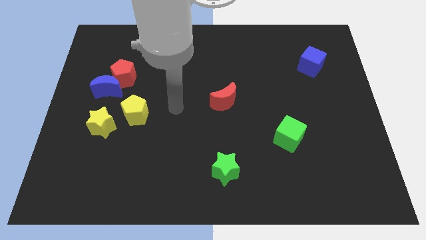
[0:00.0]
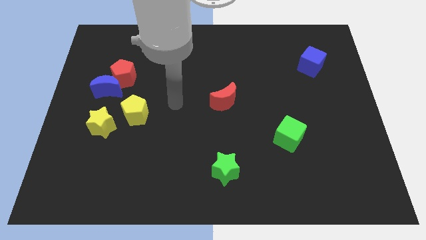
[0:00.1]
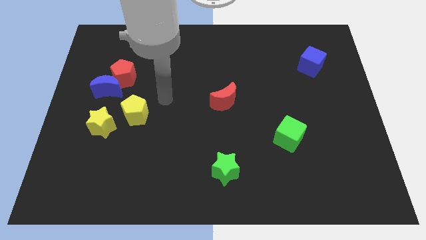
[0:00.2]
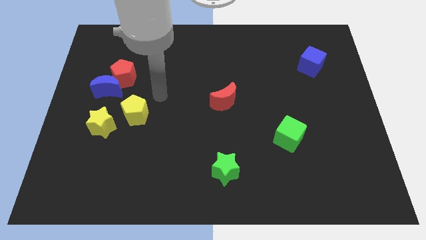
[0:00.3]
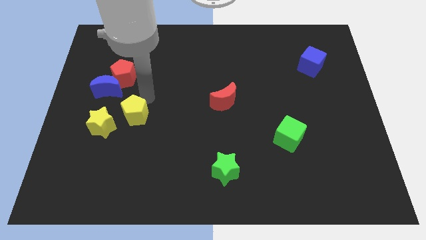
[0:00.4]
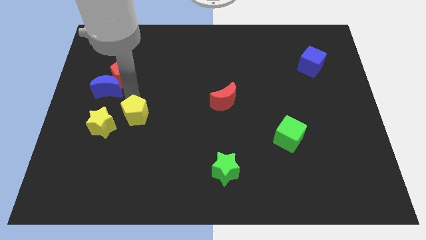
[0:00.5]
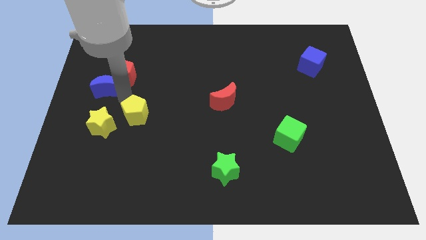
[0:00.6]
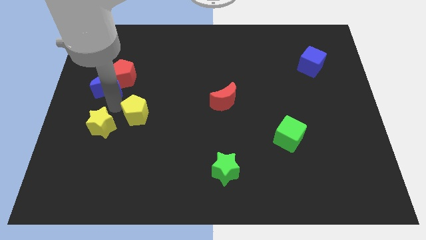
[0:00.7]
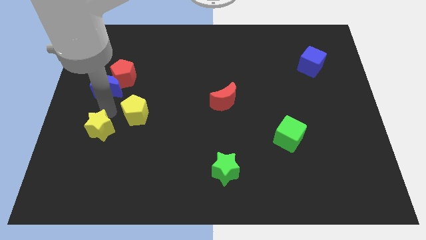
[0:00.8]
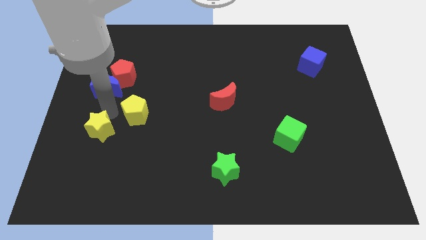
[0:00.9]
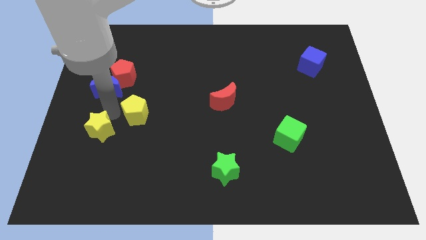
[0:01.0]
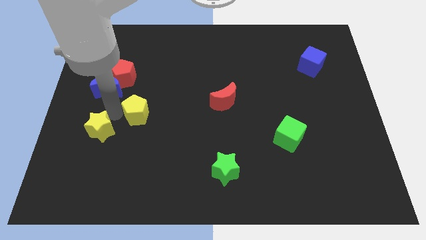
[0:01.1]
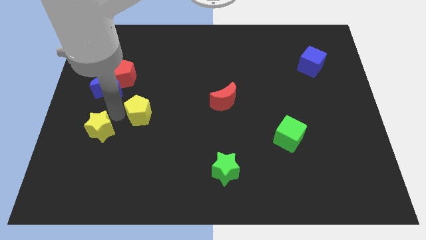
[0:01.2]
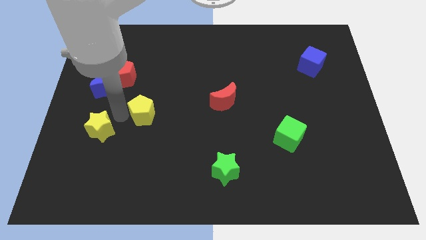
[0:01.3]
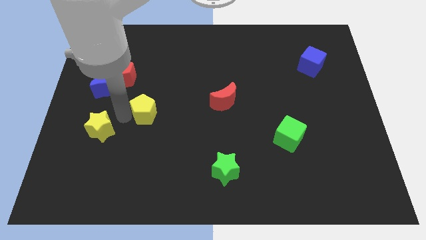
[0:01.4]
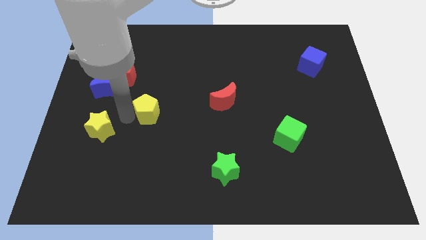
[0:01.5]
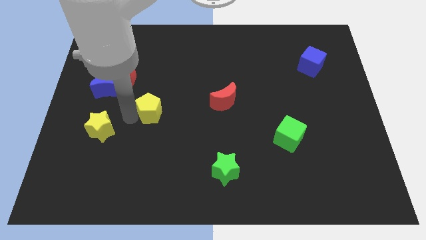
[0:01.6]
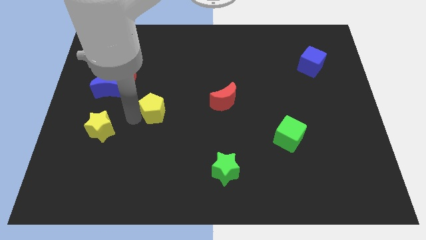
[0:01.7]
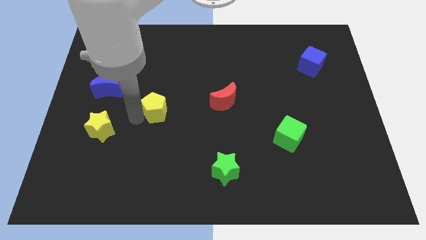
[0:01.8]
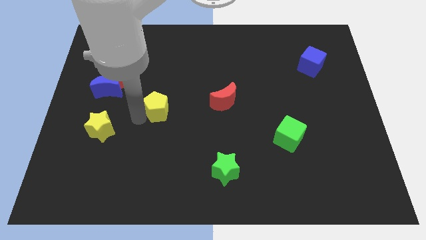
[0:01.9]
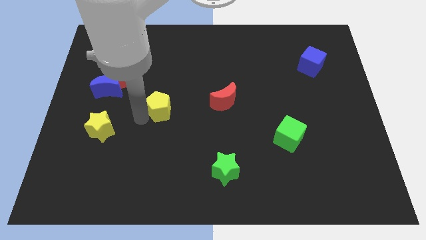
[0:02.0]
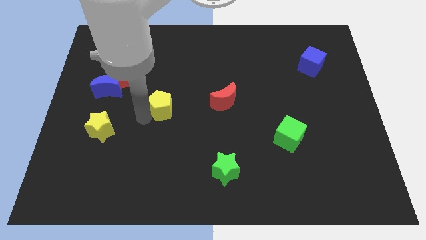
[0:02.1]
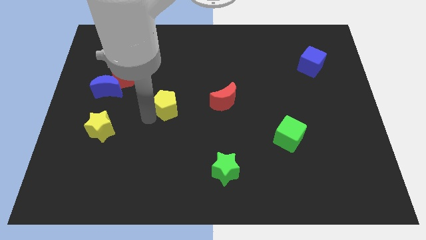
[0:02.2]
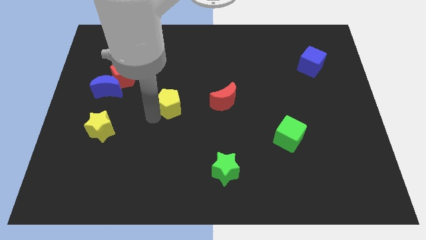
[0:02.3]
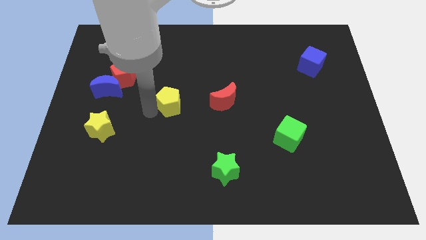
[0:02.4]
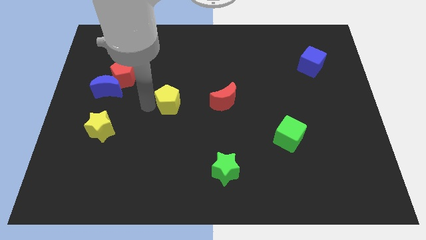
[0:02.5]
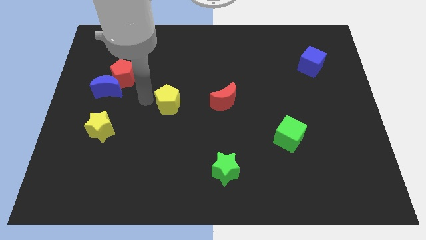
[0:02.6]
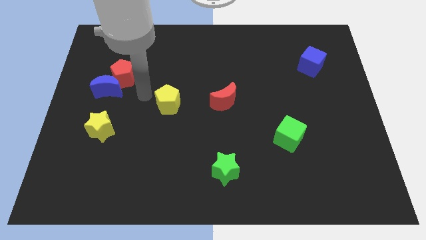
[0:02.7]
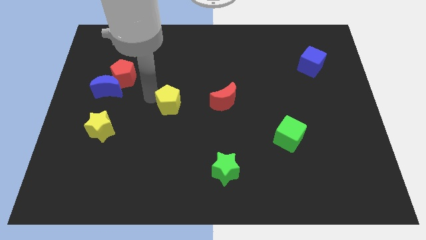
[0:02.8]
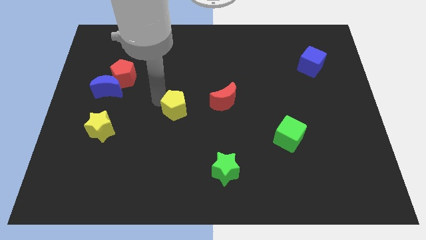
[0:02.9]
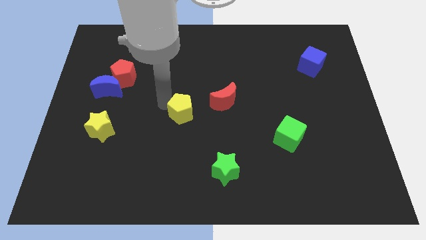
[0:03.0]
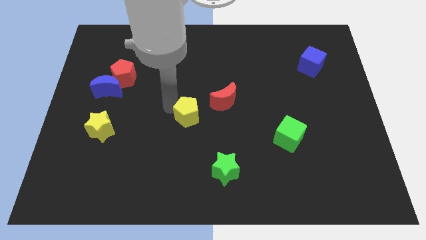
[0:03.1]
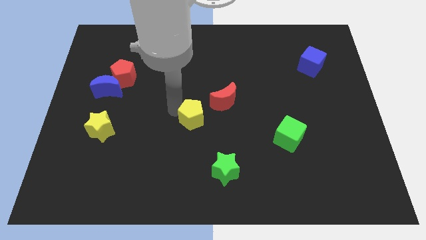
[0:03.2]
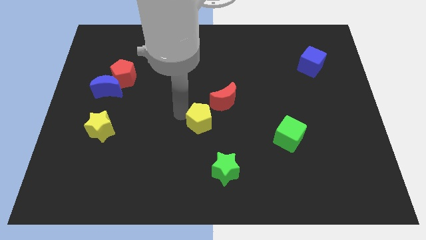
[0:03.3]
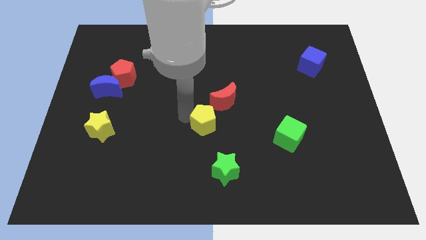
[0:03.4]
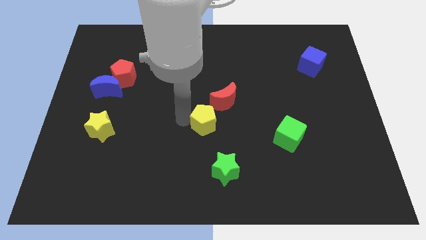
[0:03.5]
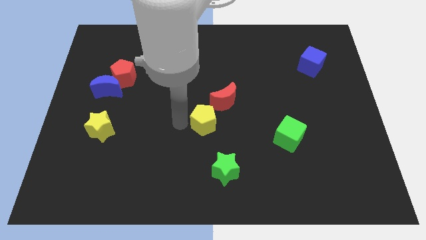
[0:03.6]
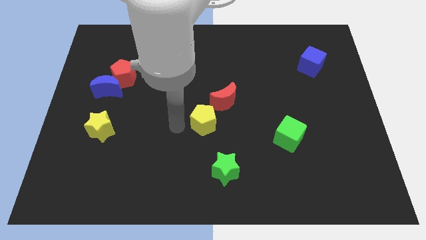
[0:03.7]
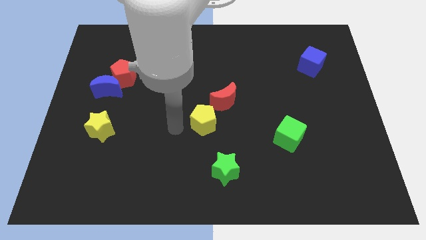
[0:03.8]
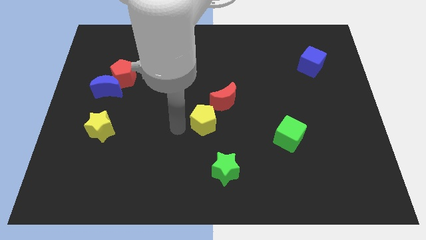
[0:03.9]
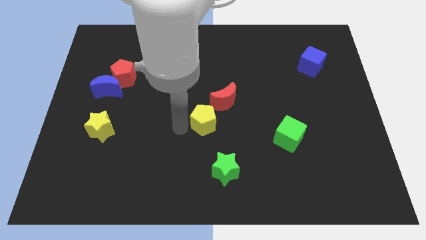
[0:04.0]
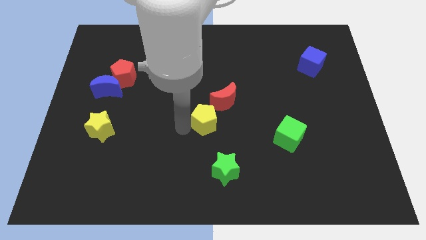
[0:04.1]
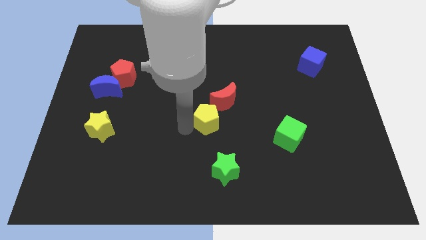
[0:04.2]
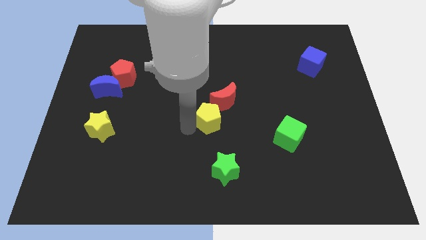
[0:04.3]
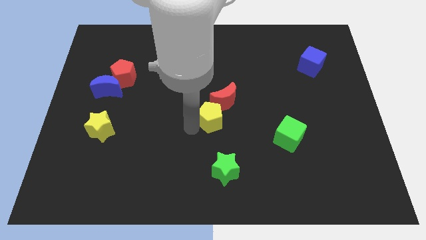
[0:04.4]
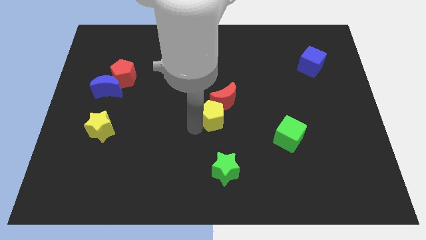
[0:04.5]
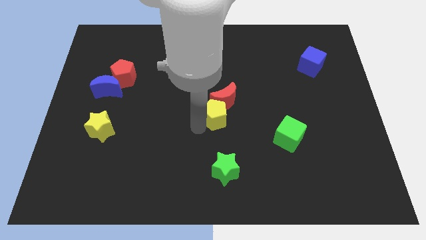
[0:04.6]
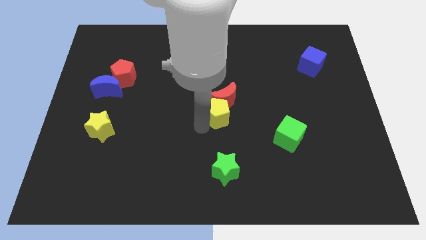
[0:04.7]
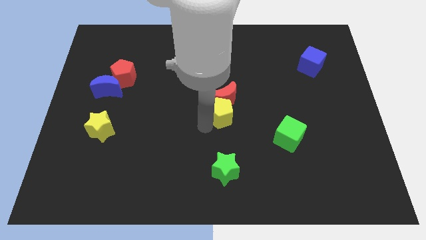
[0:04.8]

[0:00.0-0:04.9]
move the yellow pentagon right

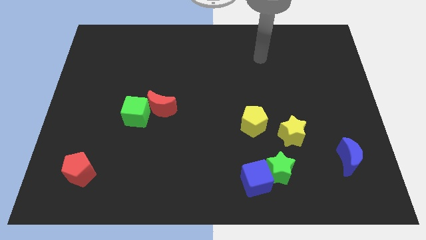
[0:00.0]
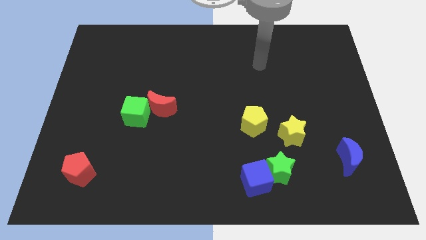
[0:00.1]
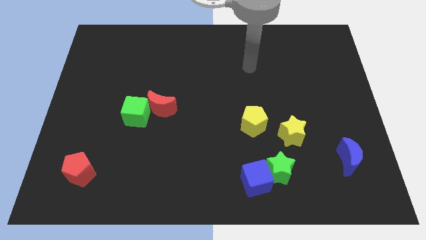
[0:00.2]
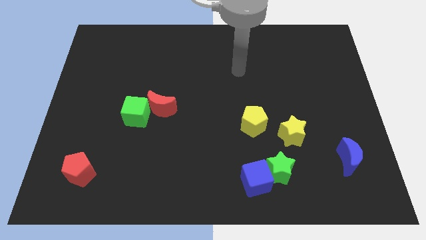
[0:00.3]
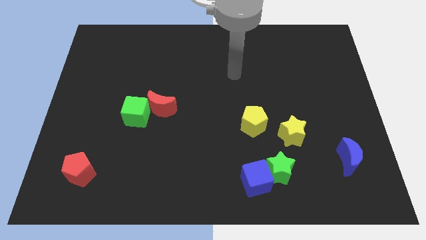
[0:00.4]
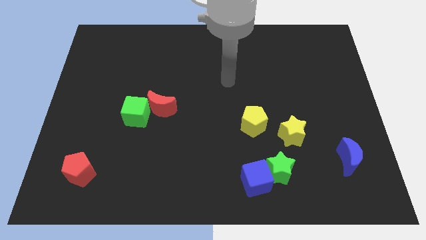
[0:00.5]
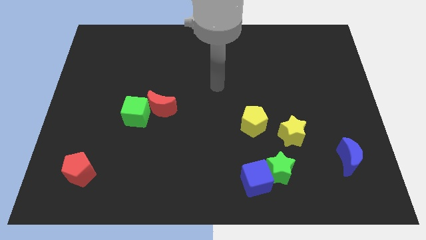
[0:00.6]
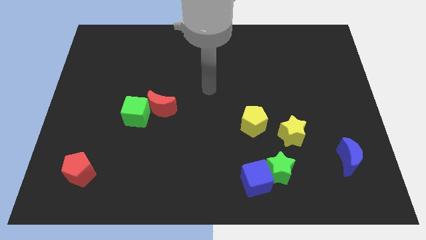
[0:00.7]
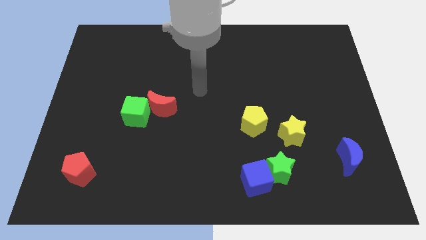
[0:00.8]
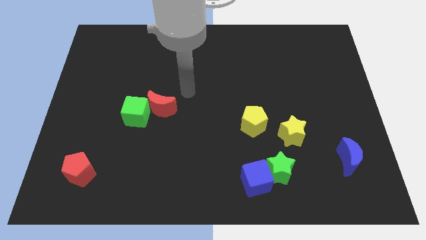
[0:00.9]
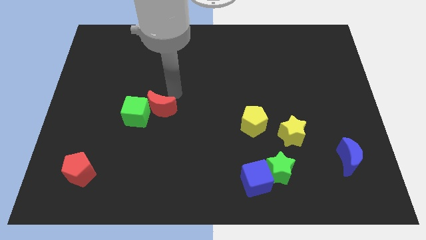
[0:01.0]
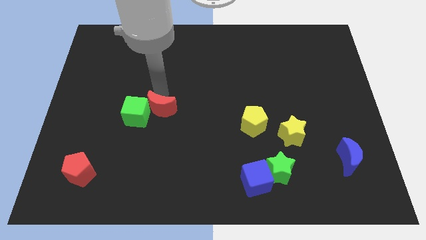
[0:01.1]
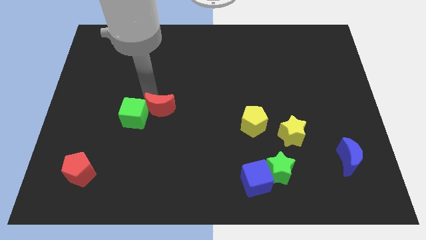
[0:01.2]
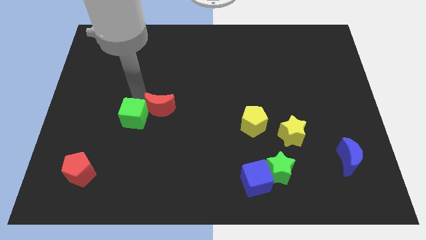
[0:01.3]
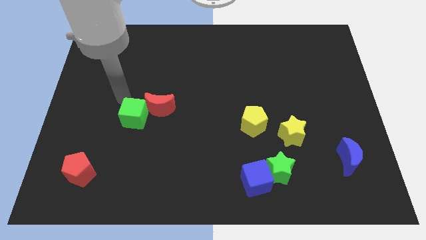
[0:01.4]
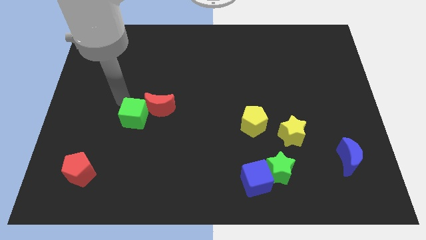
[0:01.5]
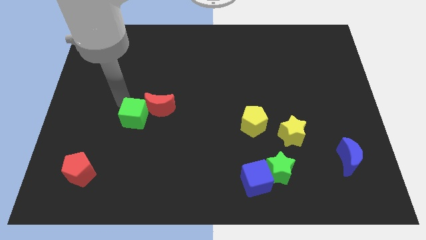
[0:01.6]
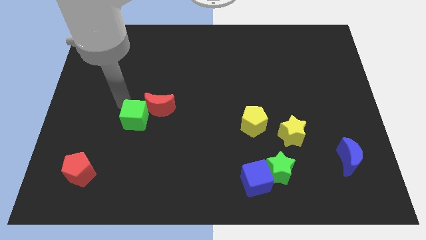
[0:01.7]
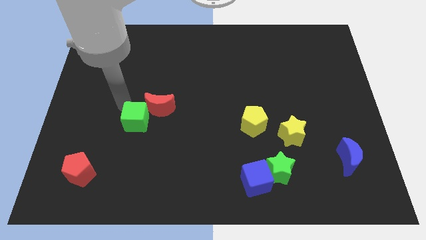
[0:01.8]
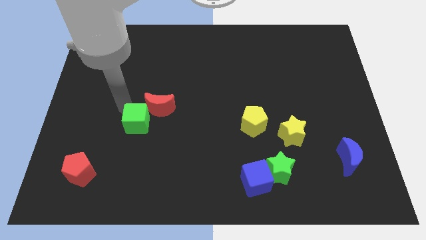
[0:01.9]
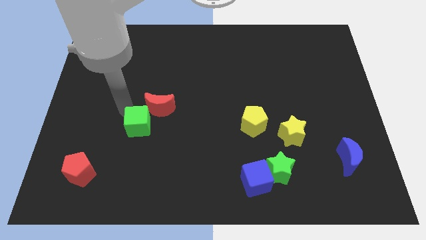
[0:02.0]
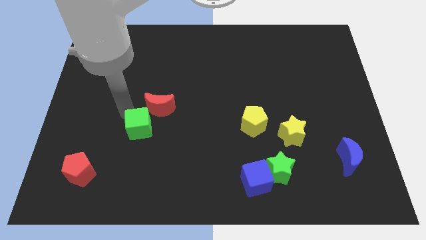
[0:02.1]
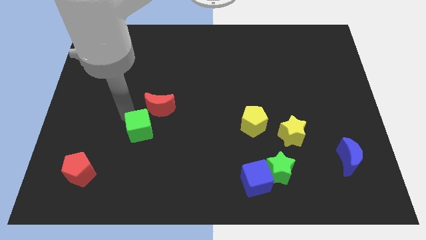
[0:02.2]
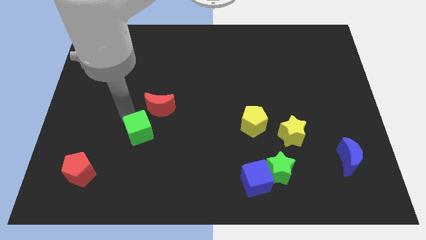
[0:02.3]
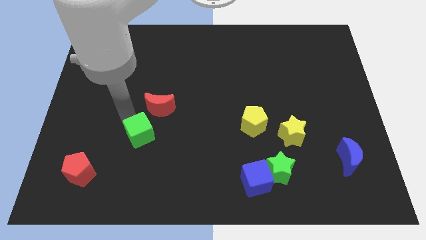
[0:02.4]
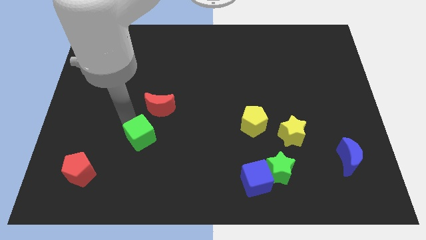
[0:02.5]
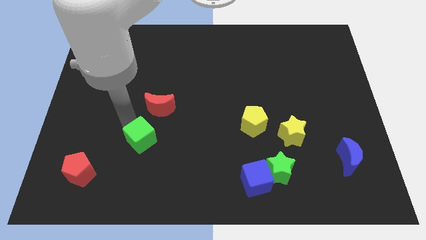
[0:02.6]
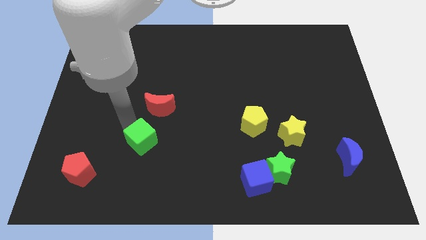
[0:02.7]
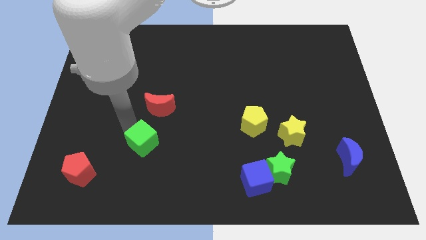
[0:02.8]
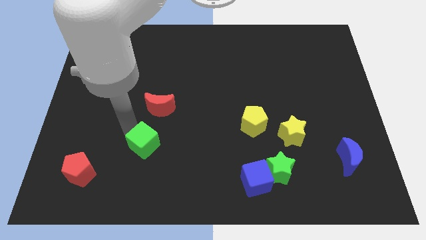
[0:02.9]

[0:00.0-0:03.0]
push the green cube somewhat downwards and right diagonally

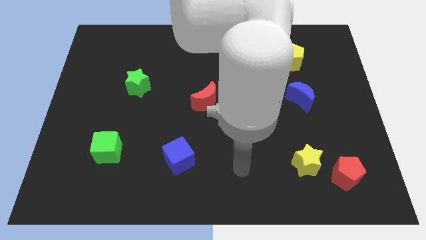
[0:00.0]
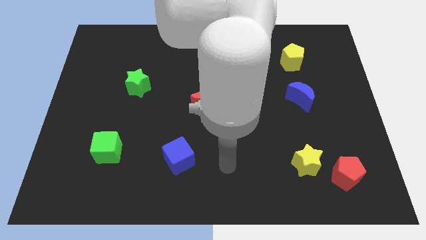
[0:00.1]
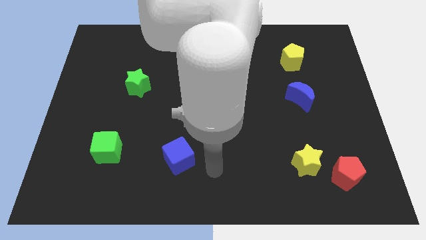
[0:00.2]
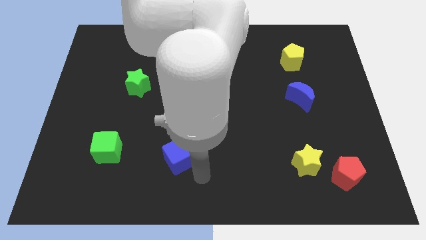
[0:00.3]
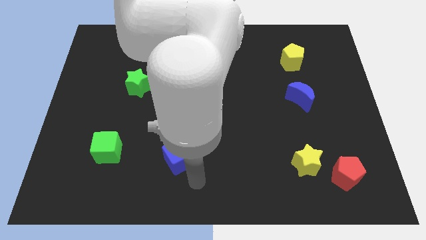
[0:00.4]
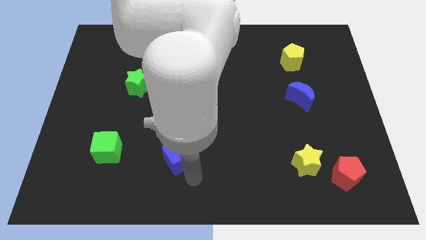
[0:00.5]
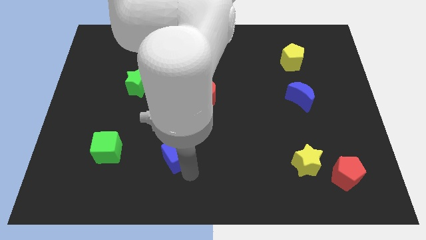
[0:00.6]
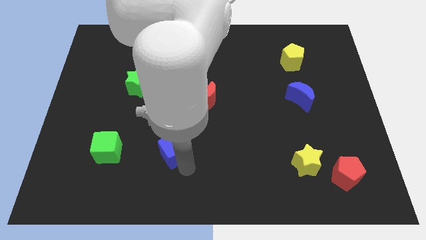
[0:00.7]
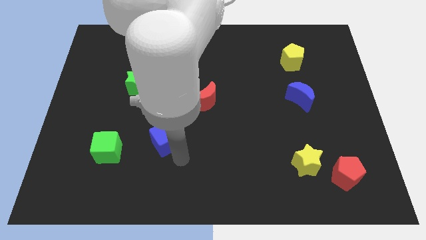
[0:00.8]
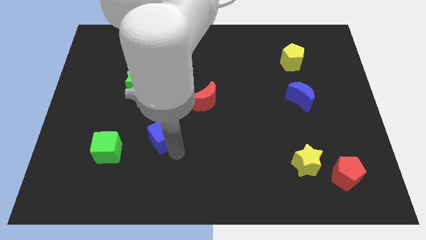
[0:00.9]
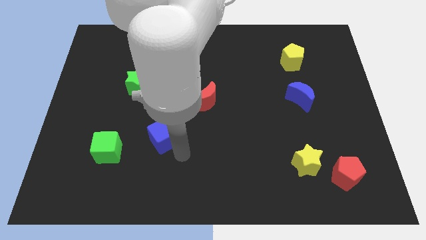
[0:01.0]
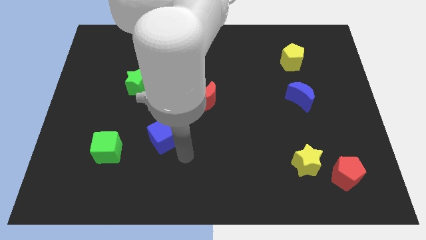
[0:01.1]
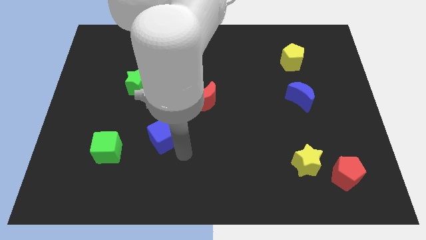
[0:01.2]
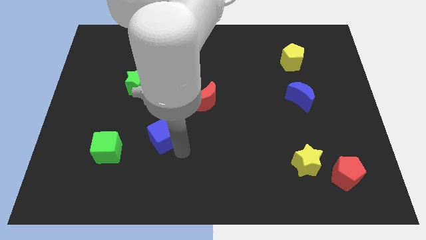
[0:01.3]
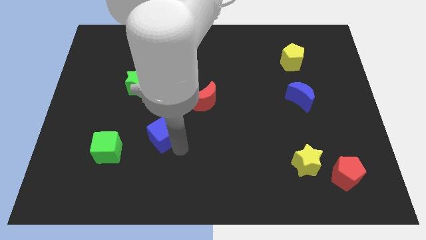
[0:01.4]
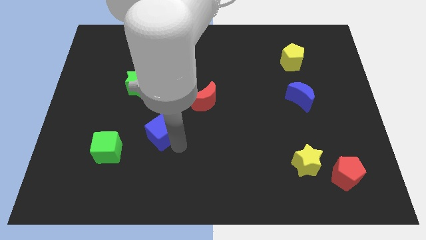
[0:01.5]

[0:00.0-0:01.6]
move the blue cube a little upwards and to the left
